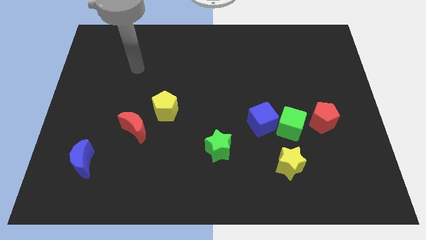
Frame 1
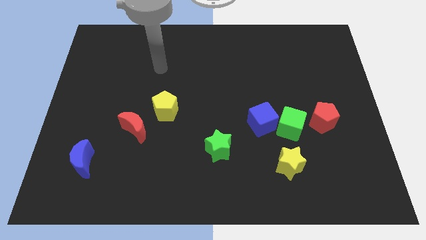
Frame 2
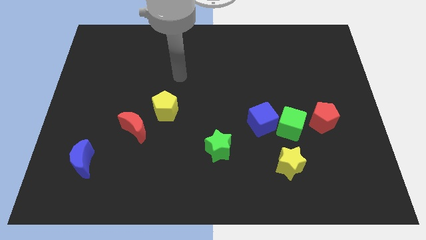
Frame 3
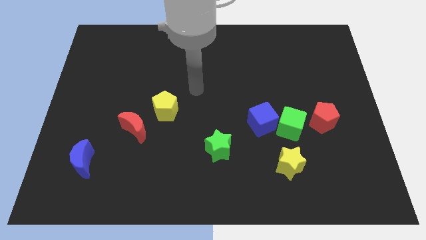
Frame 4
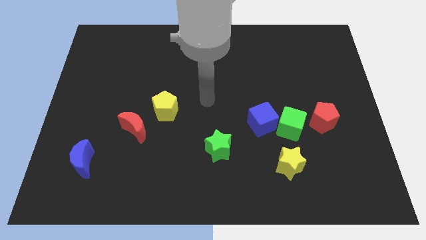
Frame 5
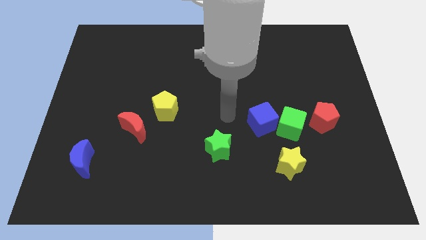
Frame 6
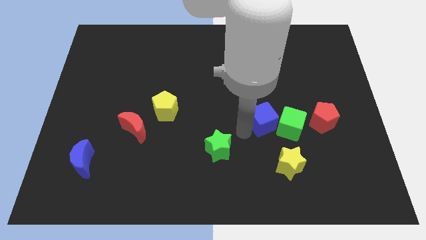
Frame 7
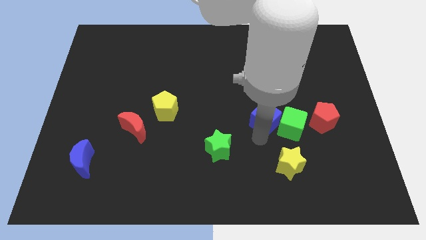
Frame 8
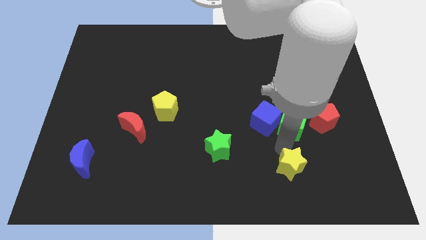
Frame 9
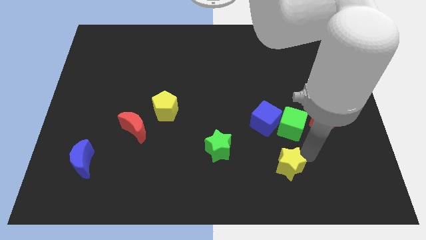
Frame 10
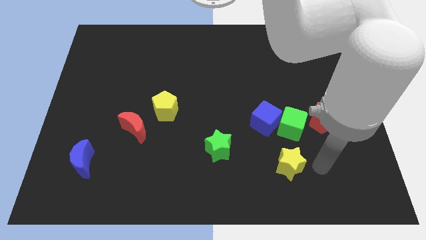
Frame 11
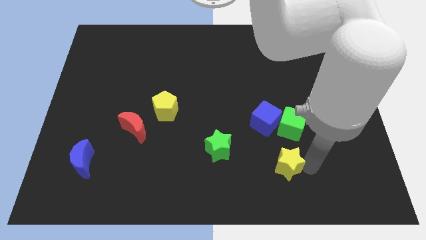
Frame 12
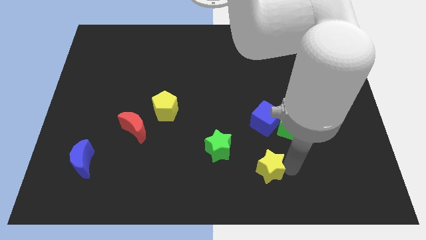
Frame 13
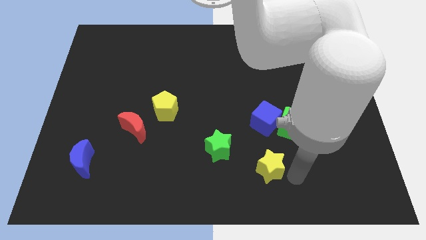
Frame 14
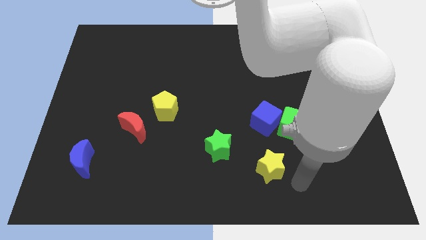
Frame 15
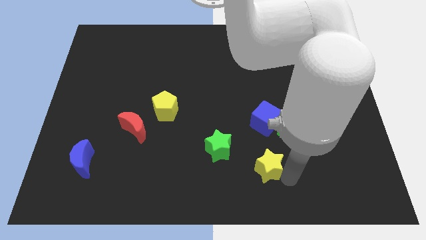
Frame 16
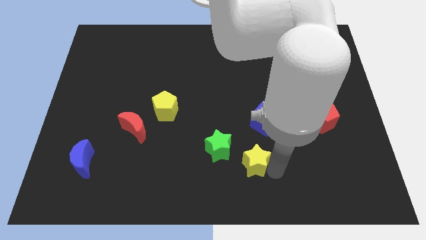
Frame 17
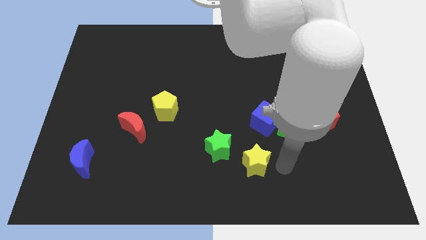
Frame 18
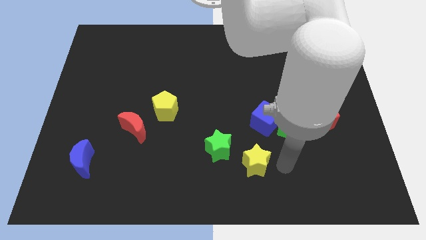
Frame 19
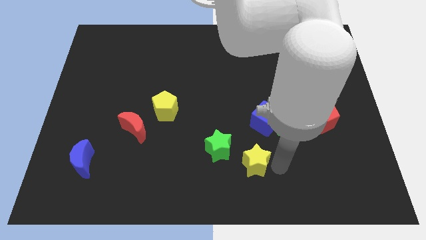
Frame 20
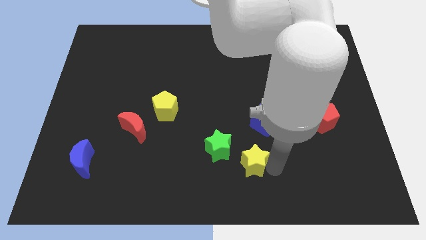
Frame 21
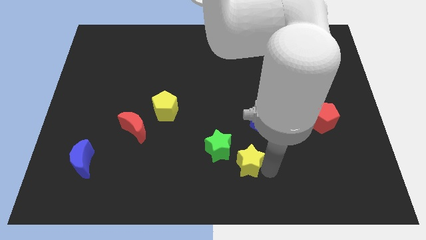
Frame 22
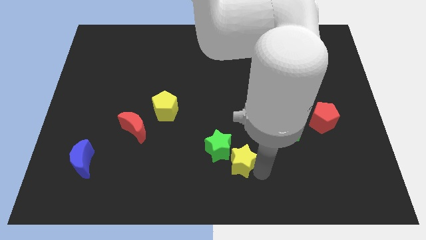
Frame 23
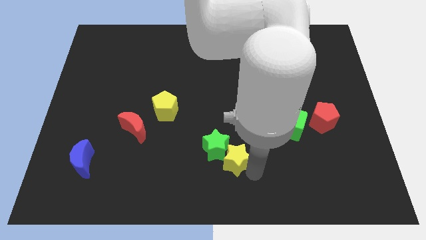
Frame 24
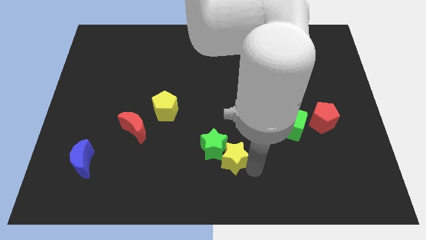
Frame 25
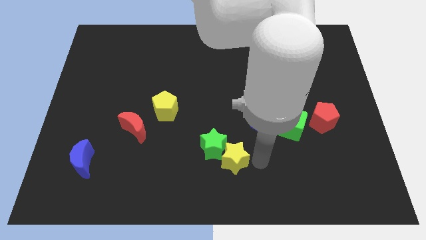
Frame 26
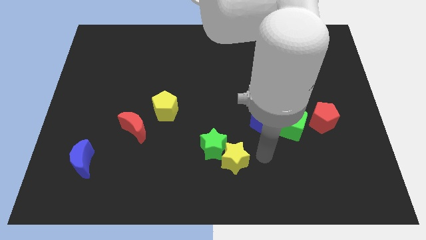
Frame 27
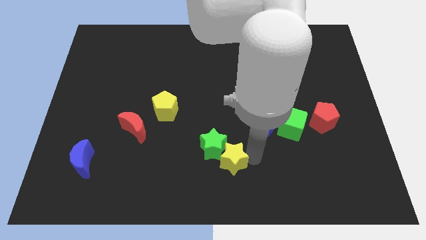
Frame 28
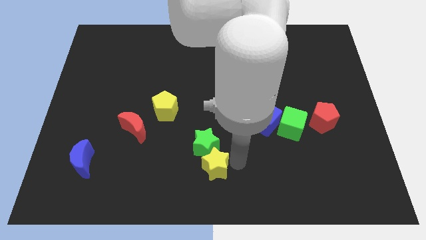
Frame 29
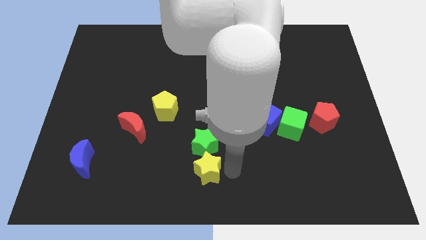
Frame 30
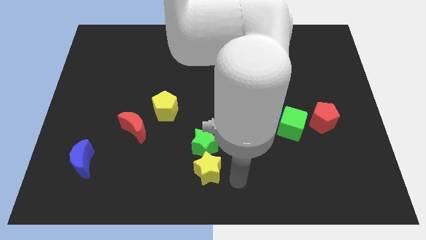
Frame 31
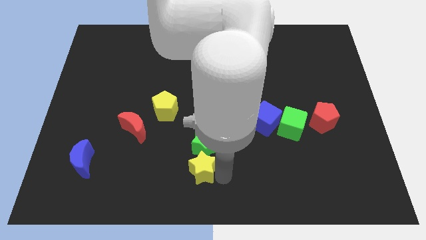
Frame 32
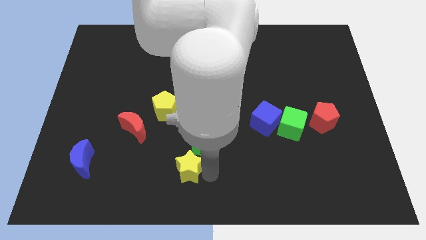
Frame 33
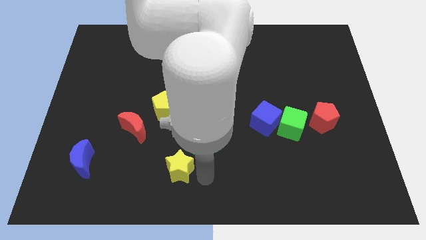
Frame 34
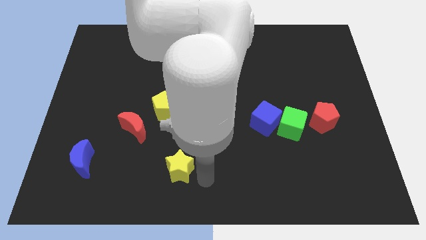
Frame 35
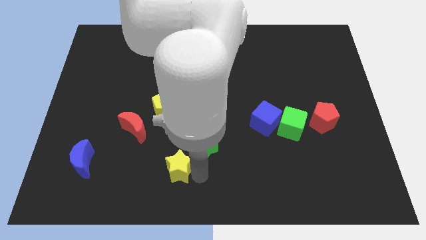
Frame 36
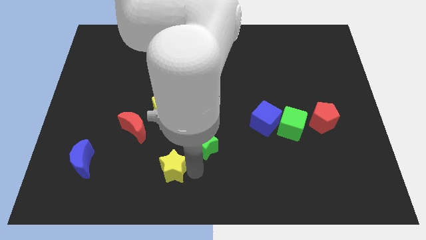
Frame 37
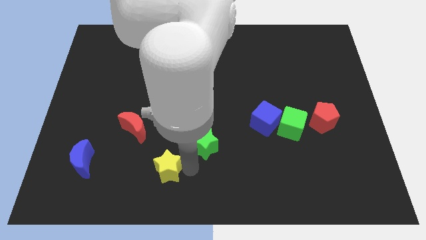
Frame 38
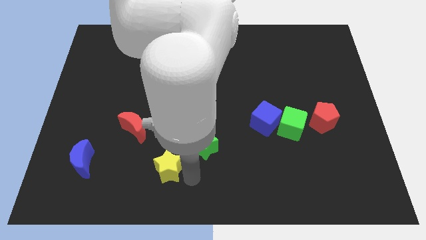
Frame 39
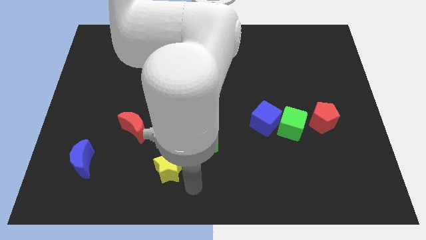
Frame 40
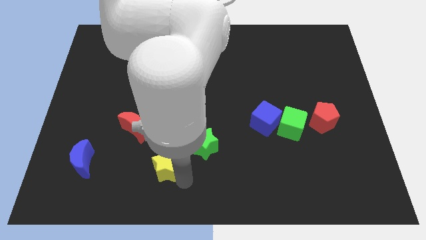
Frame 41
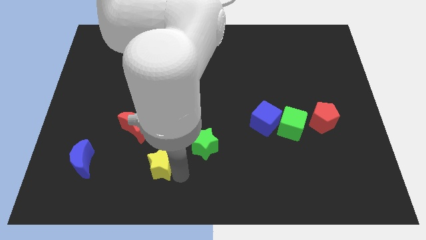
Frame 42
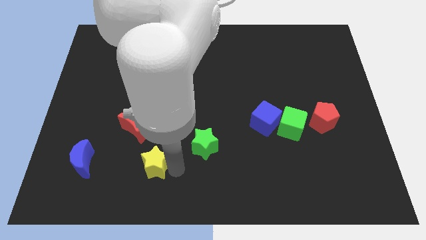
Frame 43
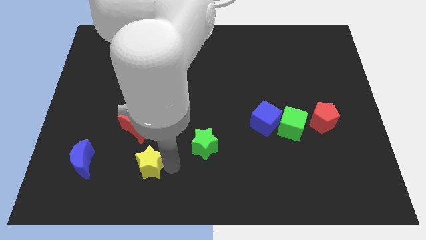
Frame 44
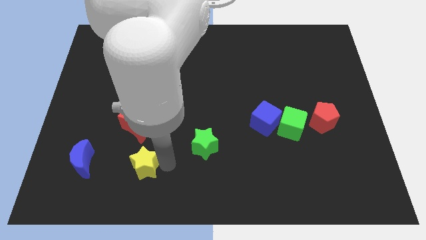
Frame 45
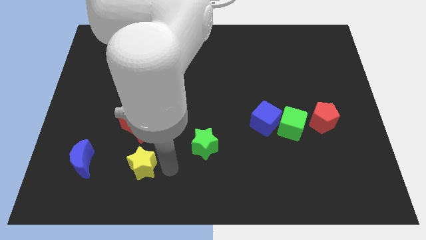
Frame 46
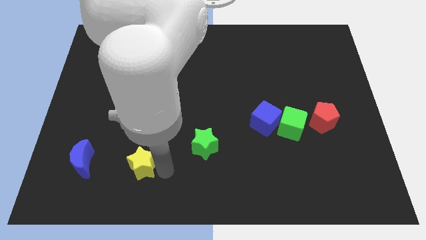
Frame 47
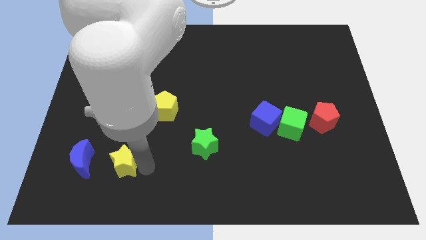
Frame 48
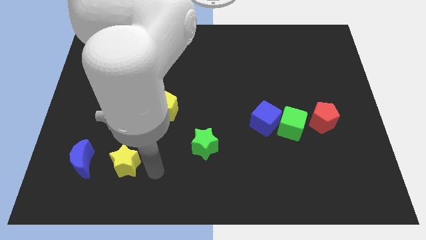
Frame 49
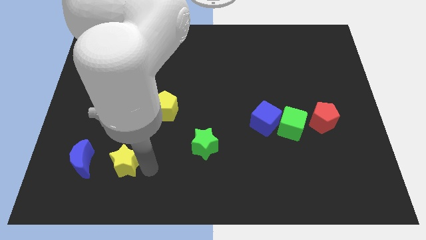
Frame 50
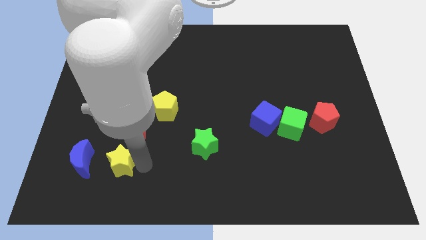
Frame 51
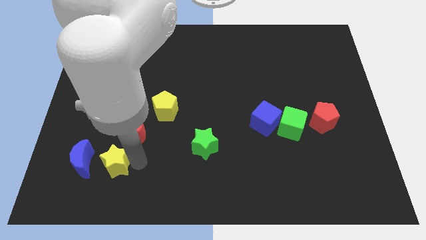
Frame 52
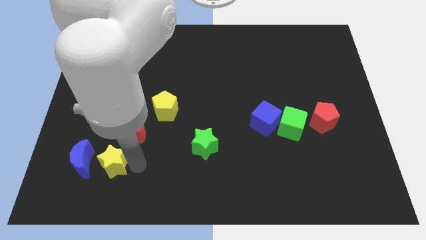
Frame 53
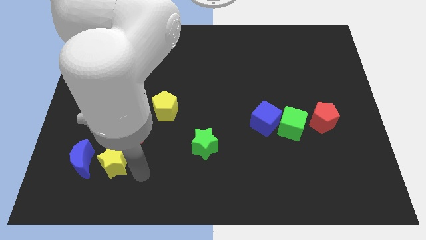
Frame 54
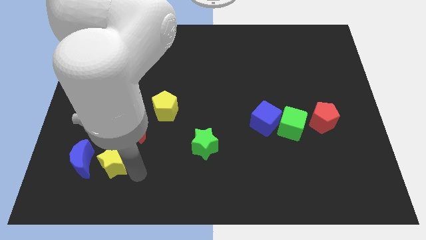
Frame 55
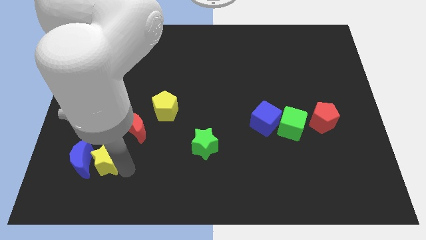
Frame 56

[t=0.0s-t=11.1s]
slide the yellow star towards the blue moon
